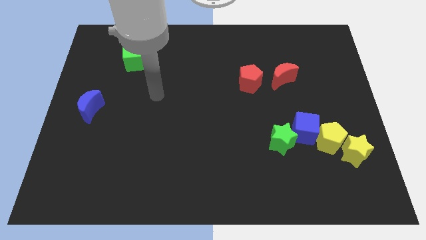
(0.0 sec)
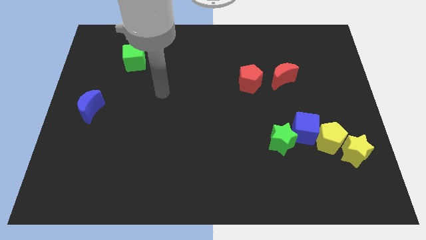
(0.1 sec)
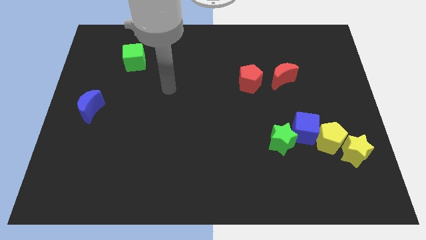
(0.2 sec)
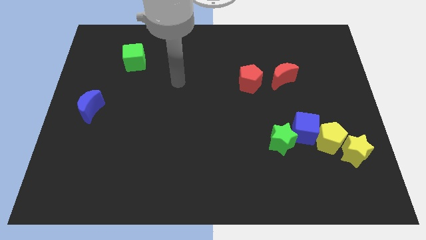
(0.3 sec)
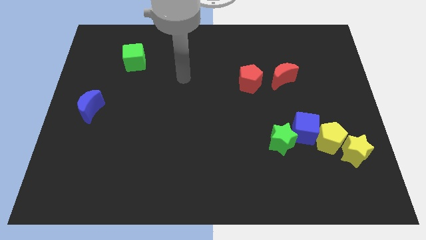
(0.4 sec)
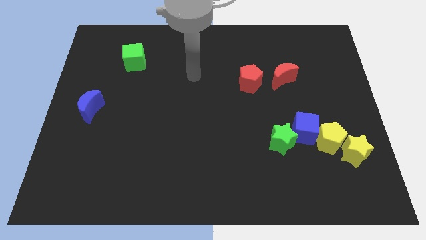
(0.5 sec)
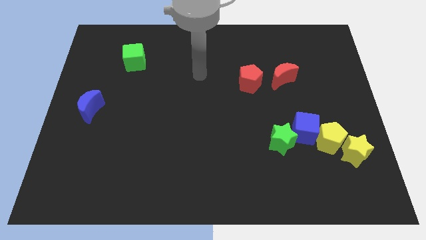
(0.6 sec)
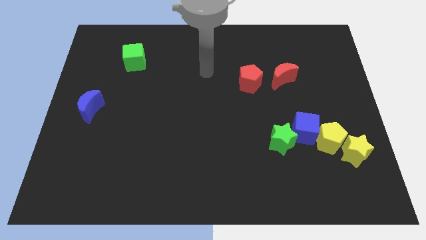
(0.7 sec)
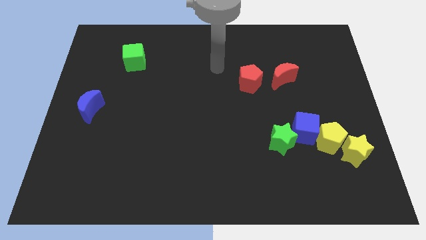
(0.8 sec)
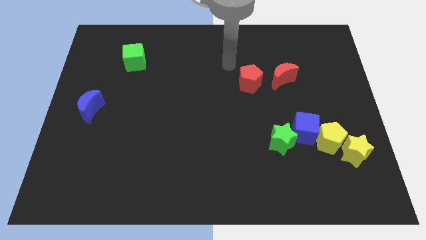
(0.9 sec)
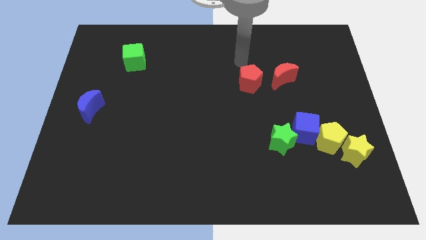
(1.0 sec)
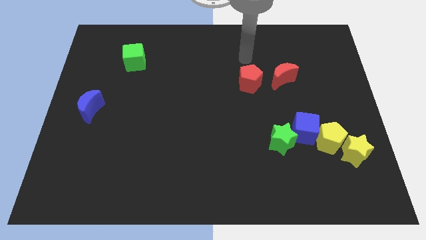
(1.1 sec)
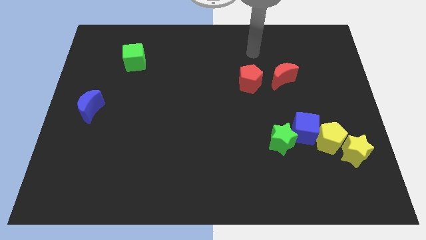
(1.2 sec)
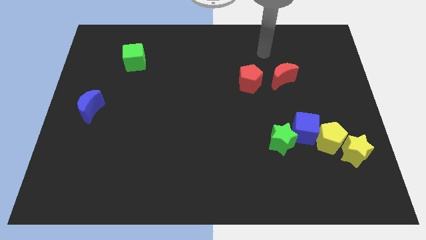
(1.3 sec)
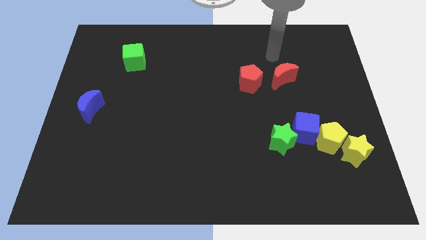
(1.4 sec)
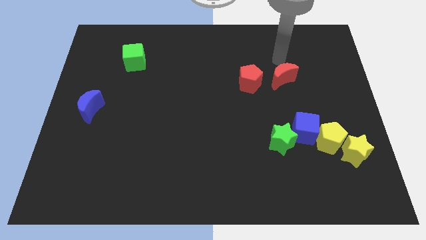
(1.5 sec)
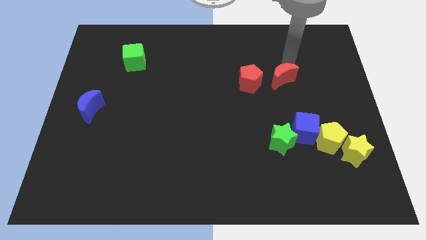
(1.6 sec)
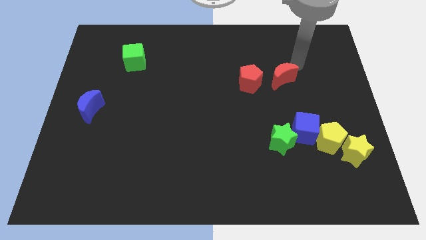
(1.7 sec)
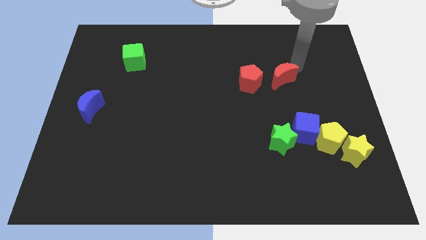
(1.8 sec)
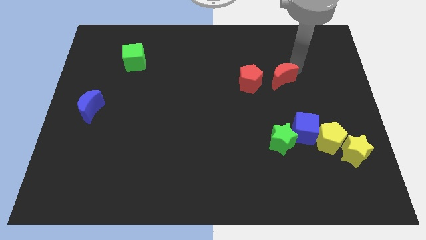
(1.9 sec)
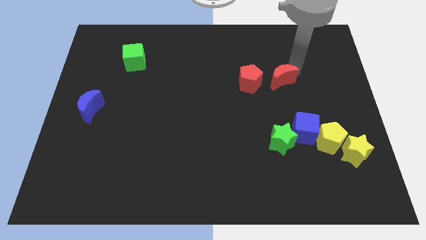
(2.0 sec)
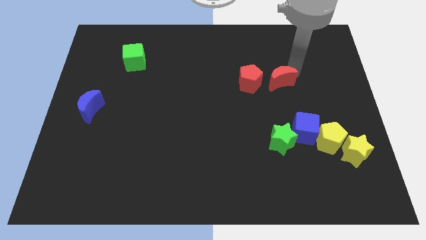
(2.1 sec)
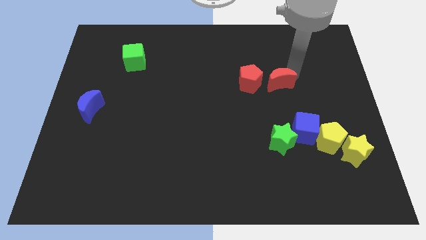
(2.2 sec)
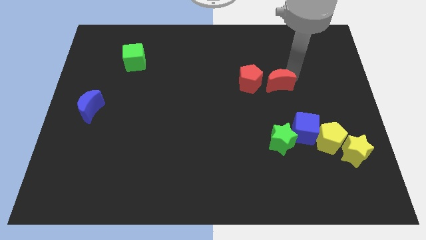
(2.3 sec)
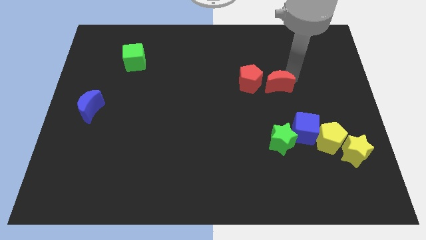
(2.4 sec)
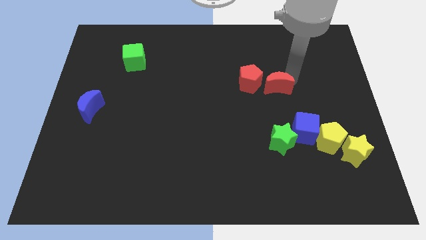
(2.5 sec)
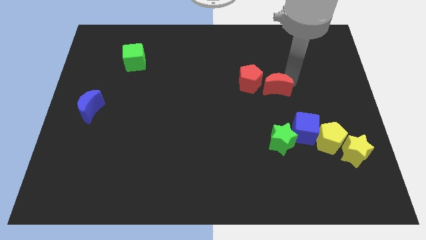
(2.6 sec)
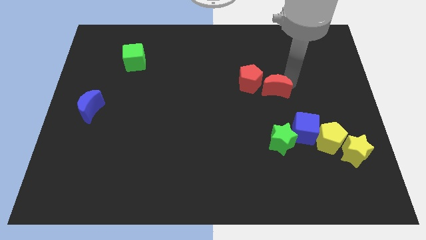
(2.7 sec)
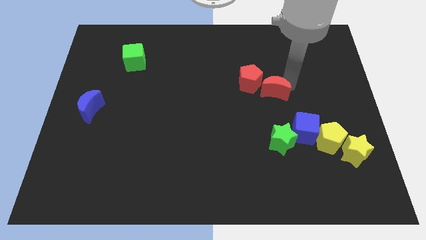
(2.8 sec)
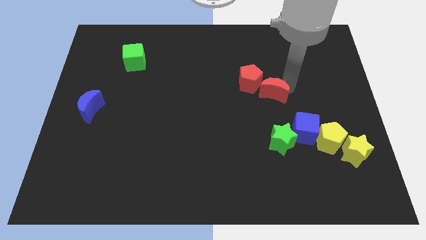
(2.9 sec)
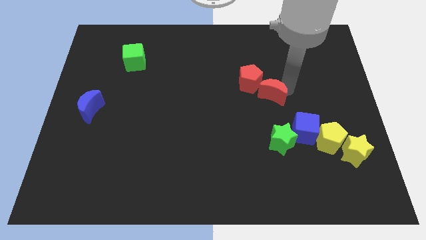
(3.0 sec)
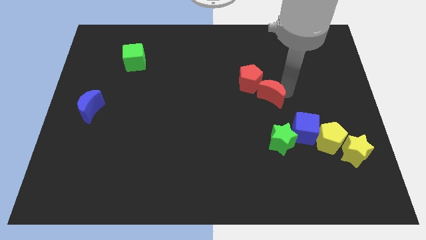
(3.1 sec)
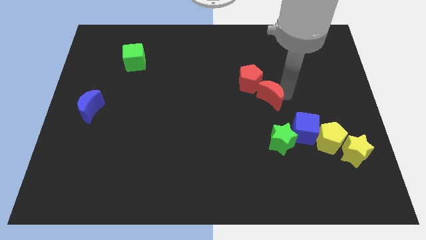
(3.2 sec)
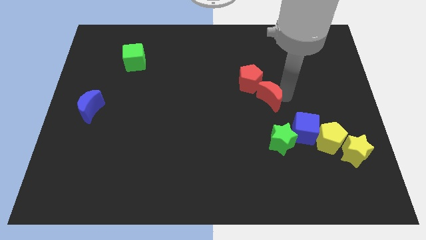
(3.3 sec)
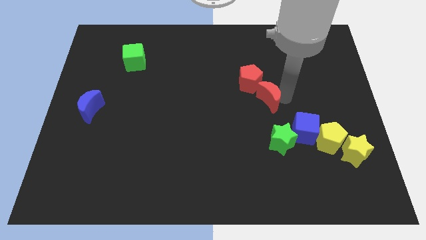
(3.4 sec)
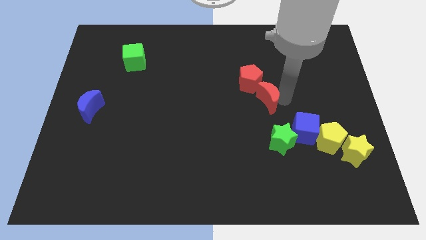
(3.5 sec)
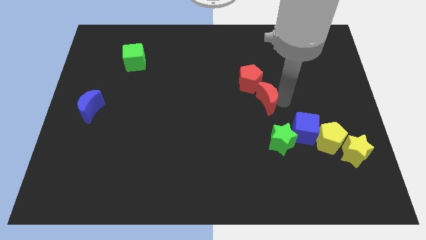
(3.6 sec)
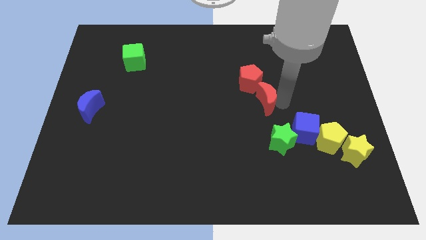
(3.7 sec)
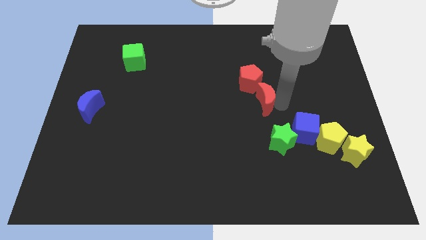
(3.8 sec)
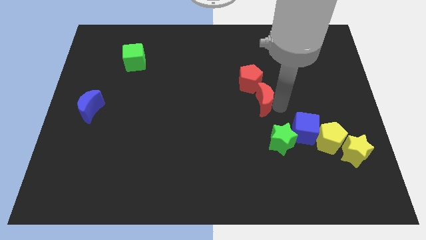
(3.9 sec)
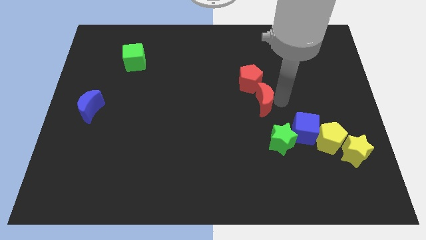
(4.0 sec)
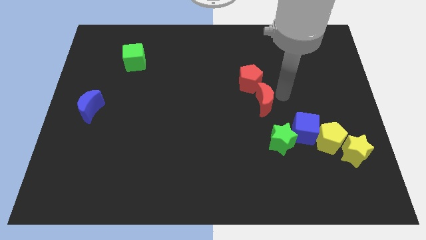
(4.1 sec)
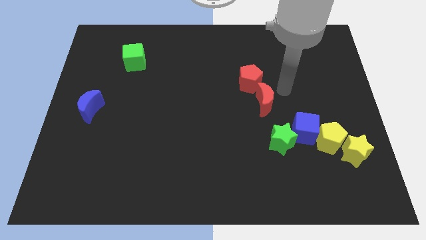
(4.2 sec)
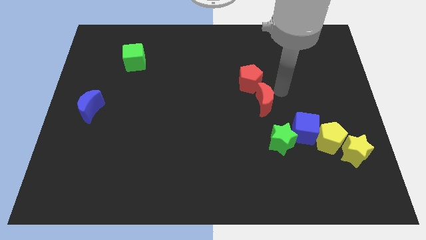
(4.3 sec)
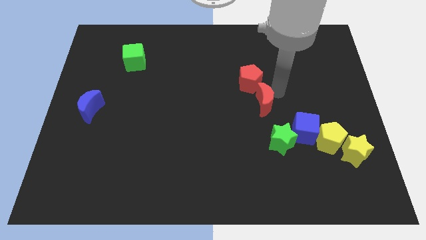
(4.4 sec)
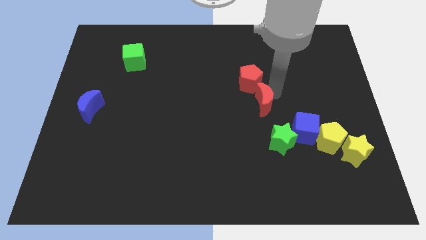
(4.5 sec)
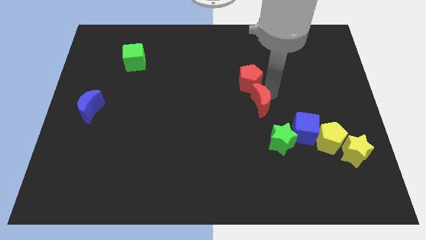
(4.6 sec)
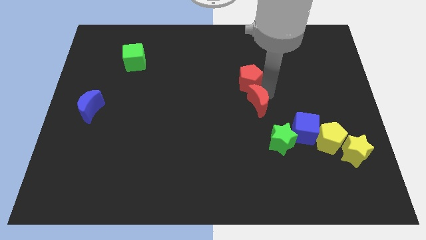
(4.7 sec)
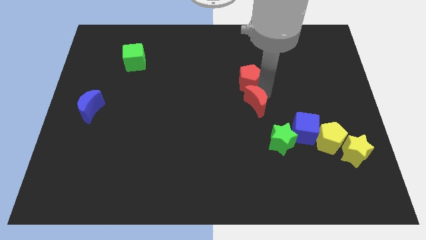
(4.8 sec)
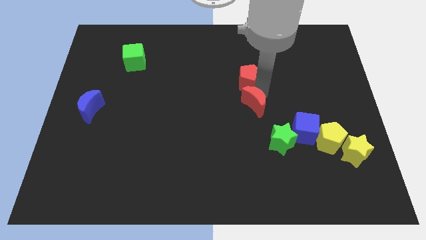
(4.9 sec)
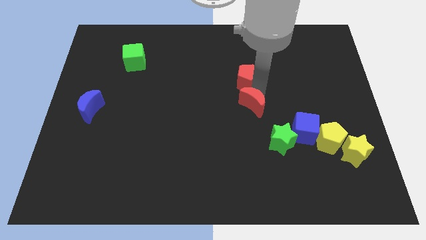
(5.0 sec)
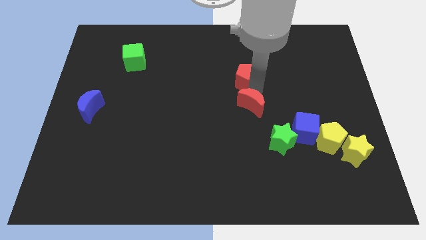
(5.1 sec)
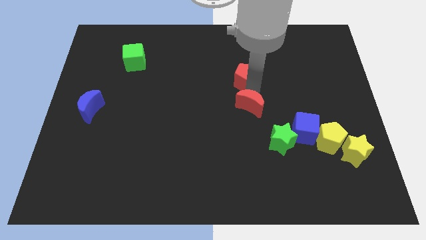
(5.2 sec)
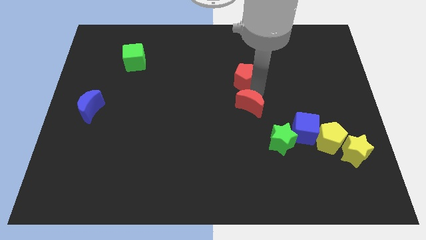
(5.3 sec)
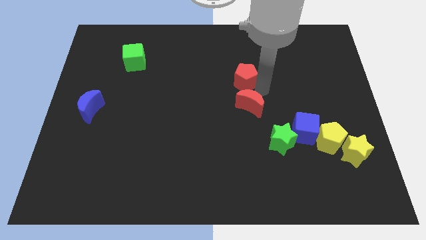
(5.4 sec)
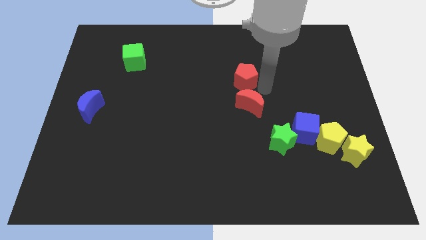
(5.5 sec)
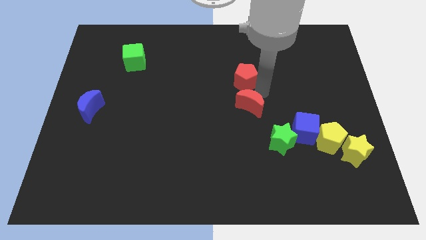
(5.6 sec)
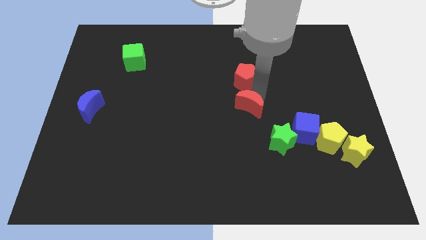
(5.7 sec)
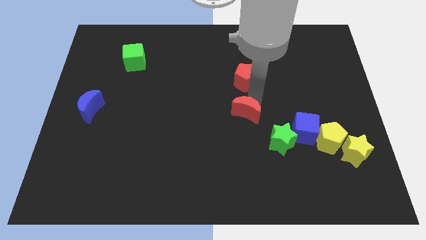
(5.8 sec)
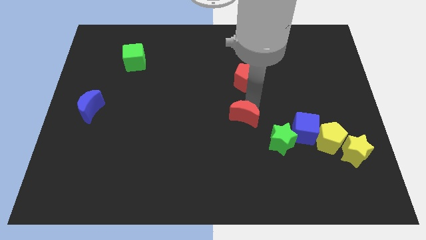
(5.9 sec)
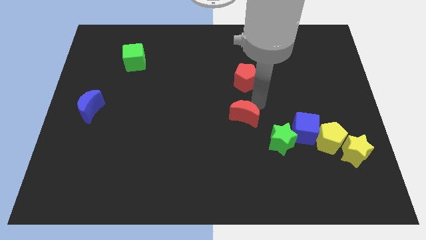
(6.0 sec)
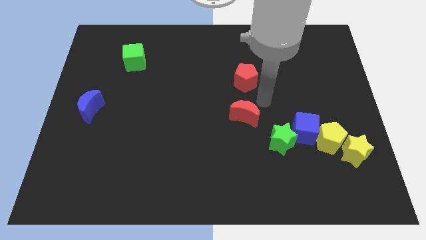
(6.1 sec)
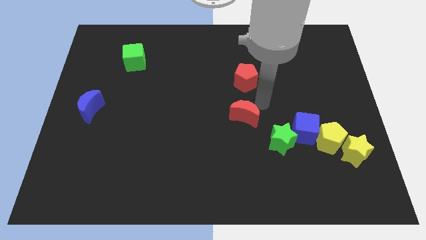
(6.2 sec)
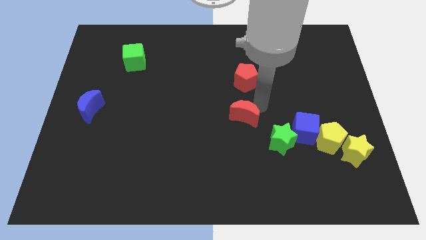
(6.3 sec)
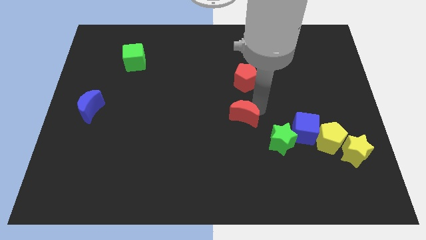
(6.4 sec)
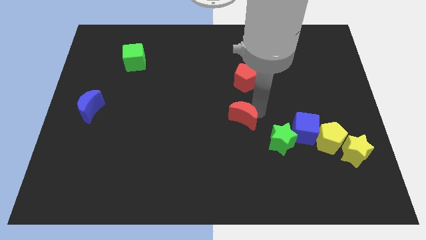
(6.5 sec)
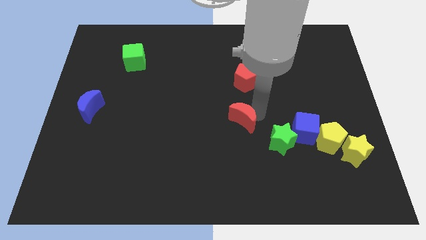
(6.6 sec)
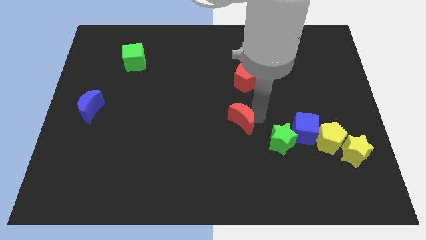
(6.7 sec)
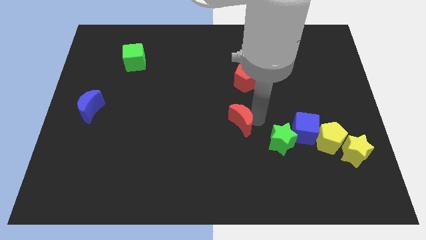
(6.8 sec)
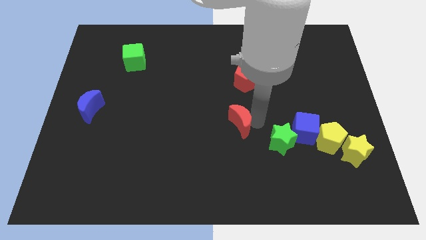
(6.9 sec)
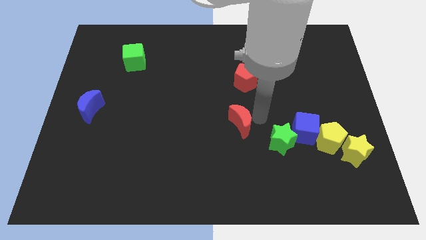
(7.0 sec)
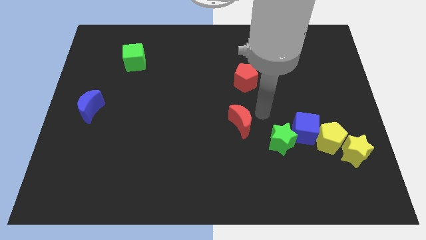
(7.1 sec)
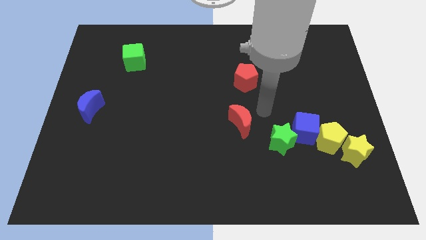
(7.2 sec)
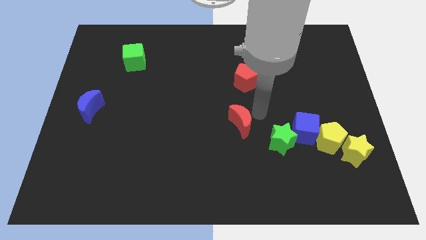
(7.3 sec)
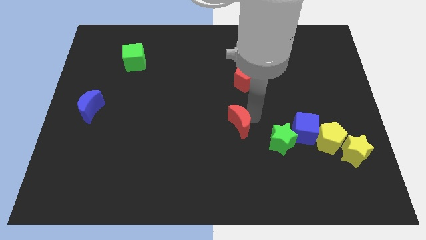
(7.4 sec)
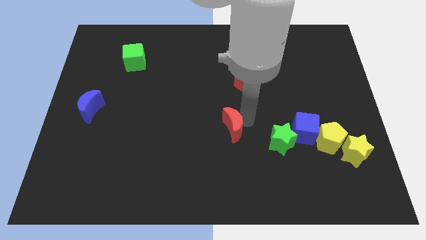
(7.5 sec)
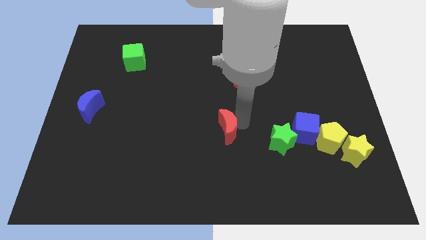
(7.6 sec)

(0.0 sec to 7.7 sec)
slide the red moon down and then to the left
